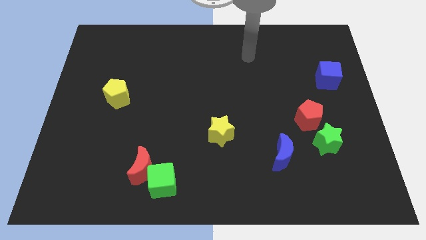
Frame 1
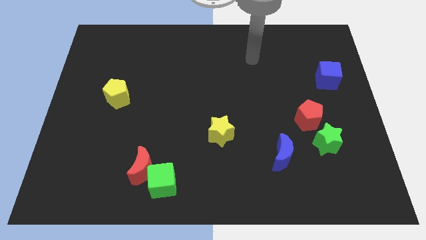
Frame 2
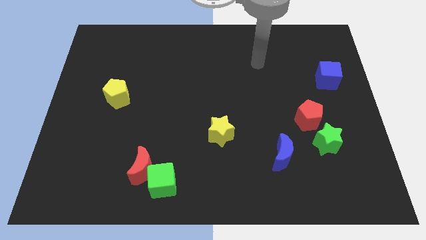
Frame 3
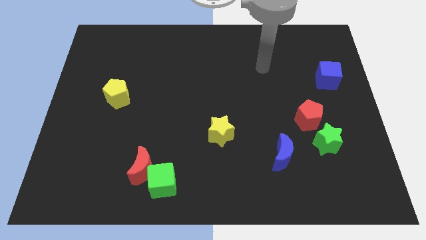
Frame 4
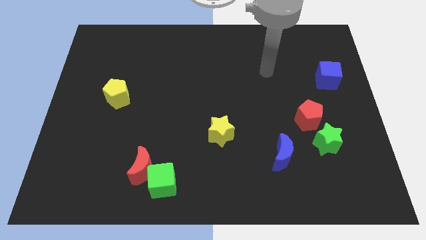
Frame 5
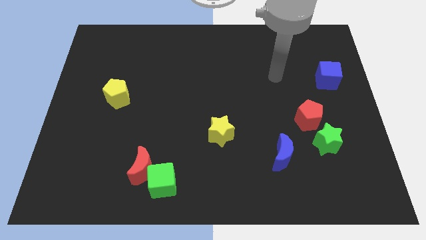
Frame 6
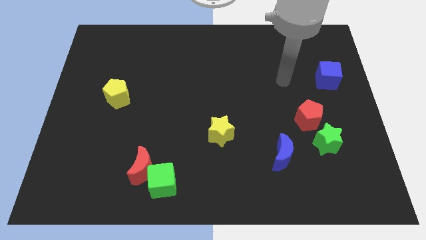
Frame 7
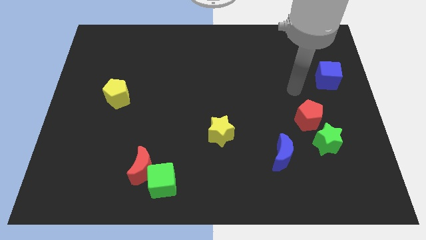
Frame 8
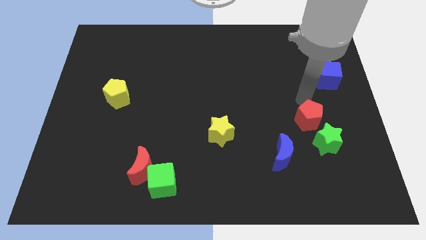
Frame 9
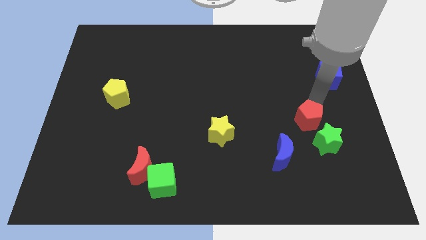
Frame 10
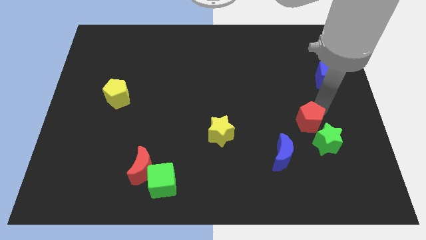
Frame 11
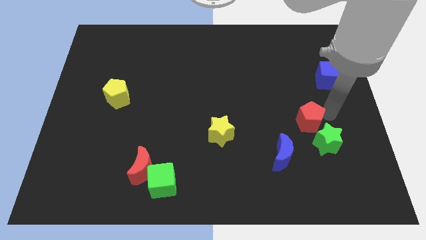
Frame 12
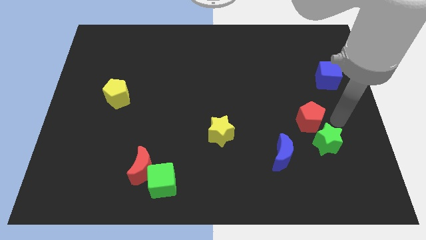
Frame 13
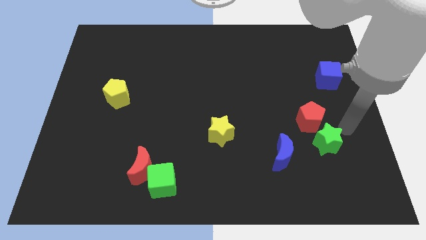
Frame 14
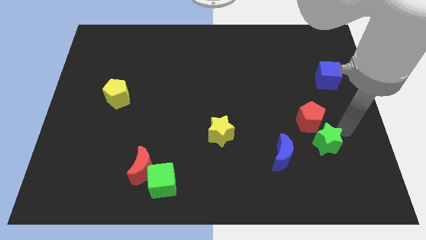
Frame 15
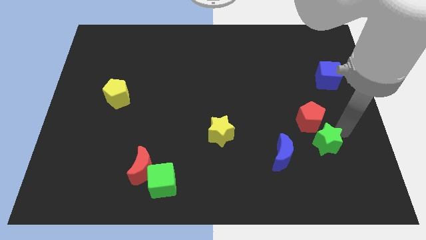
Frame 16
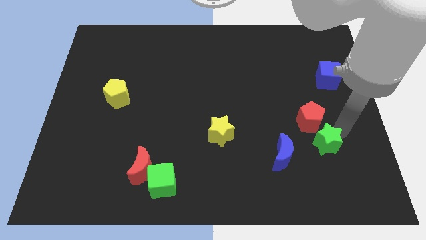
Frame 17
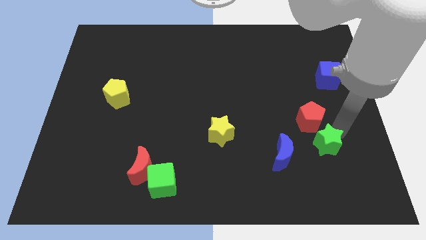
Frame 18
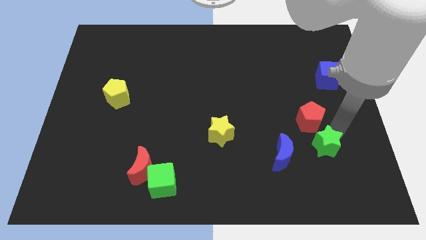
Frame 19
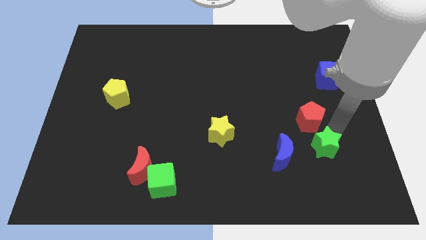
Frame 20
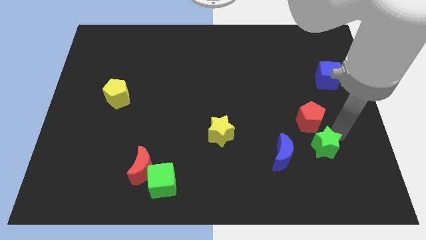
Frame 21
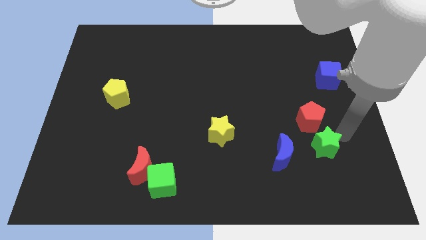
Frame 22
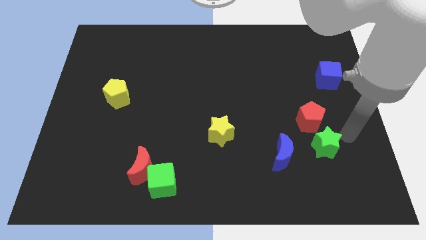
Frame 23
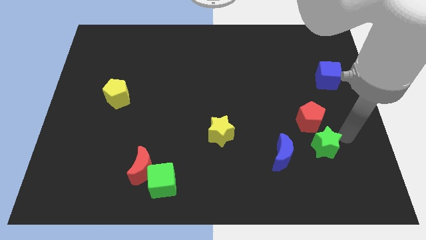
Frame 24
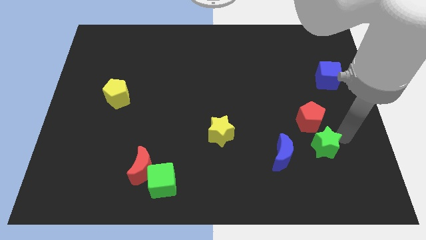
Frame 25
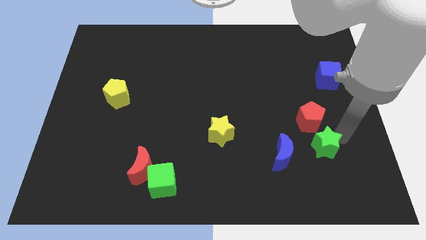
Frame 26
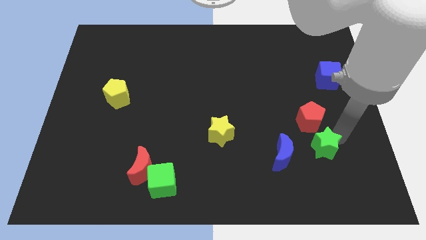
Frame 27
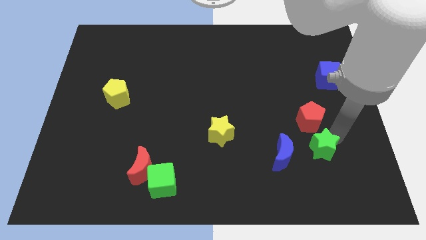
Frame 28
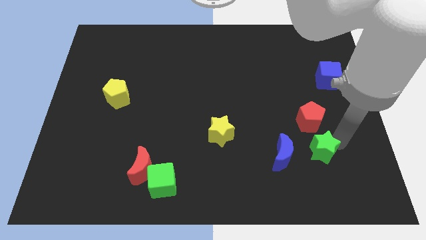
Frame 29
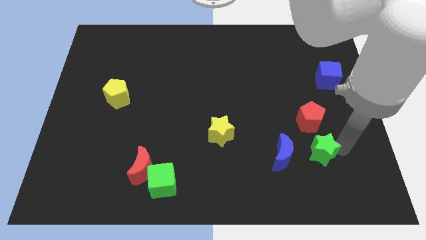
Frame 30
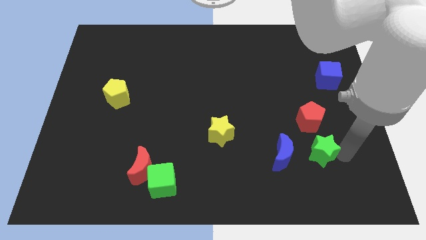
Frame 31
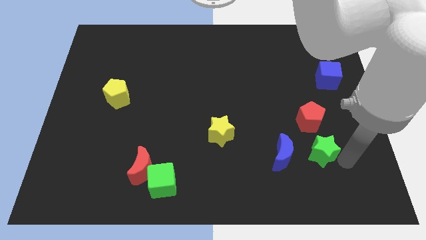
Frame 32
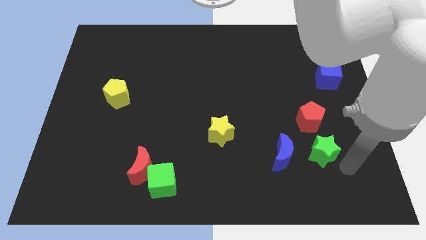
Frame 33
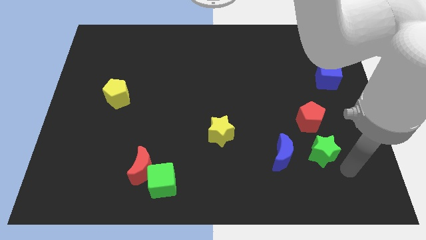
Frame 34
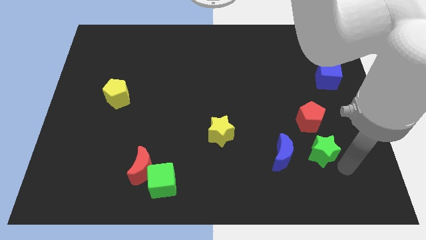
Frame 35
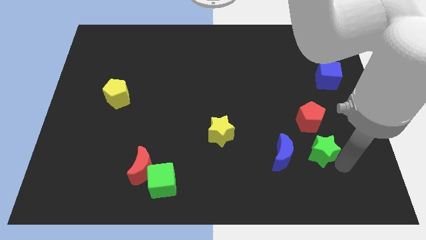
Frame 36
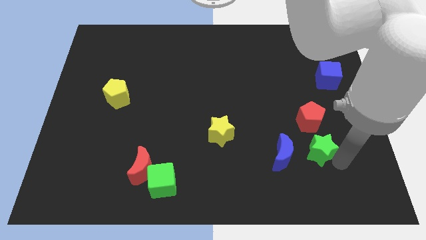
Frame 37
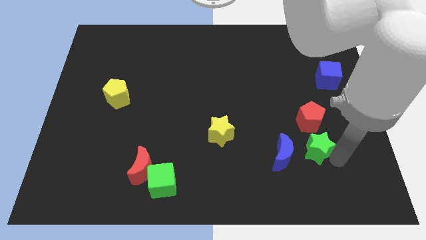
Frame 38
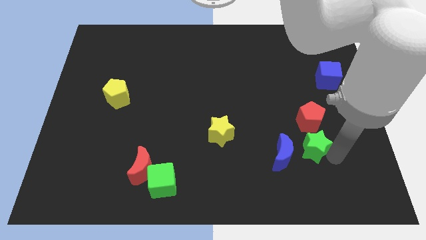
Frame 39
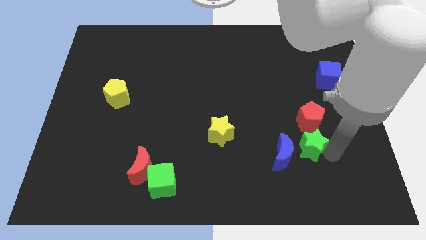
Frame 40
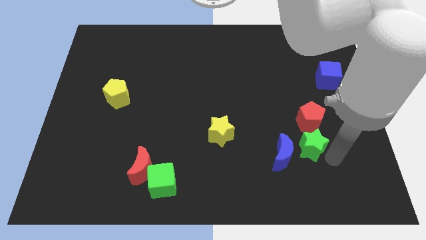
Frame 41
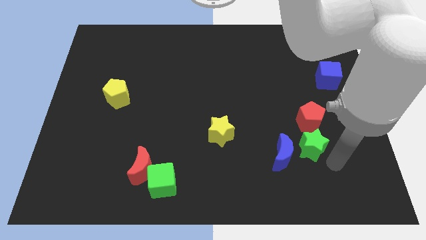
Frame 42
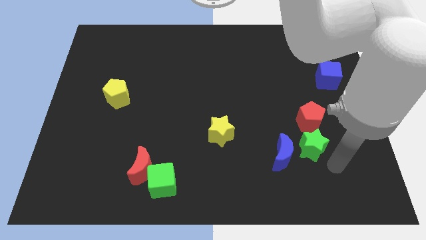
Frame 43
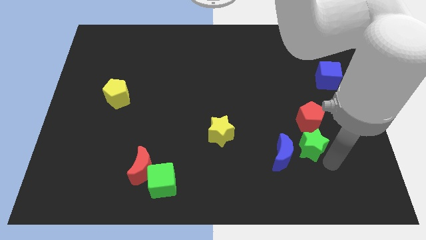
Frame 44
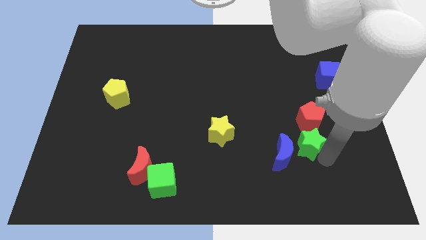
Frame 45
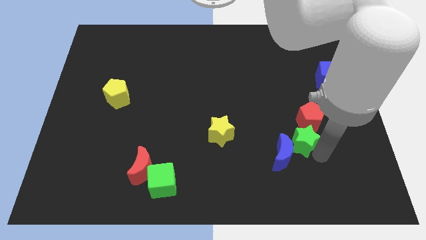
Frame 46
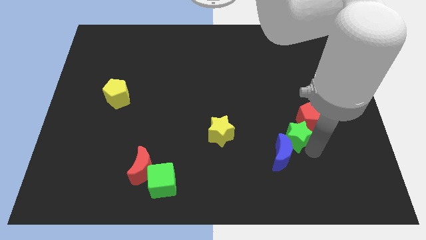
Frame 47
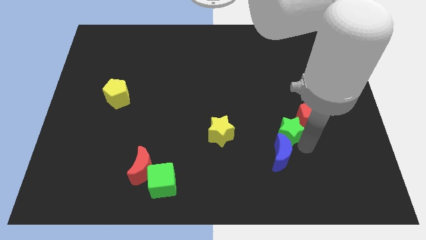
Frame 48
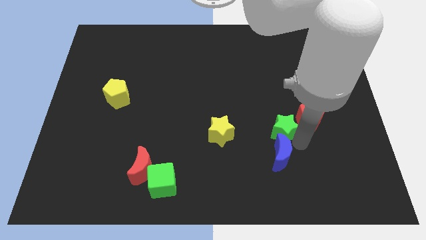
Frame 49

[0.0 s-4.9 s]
slide the green star somewhat up and then left

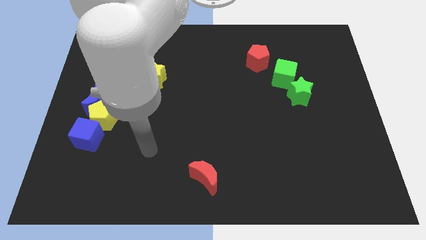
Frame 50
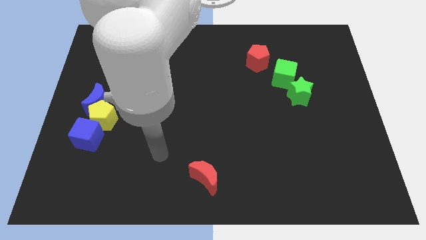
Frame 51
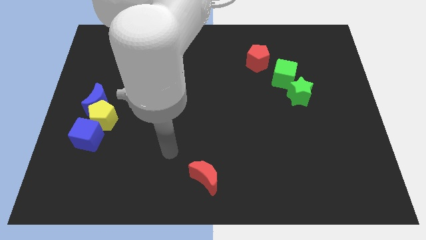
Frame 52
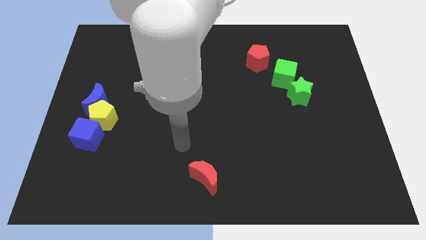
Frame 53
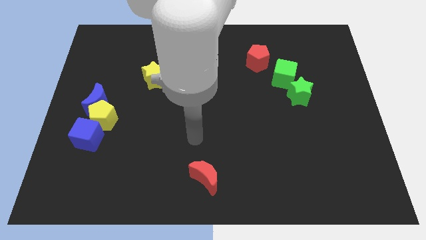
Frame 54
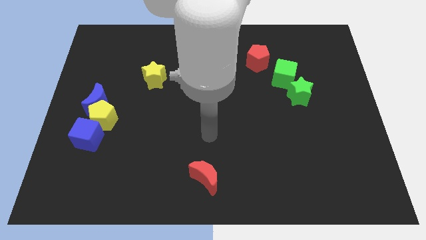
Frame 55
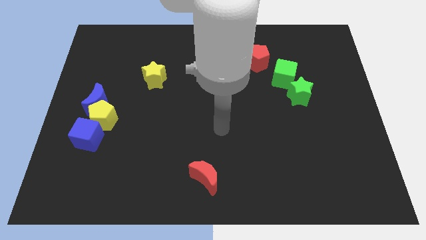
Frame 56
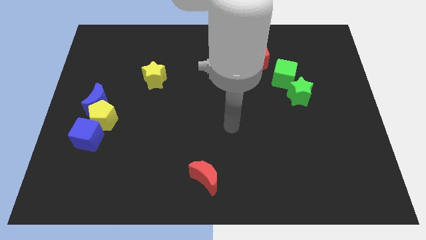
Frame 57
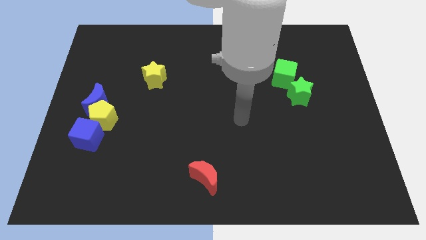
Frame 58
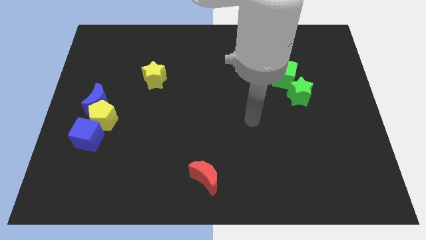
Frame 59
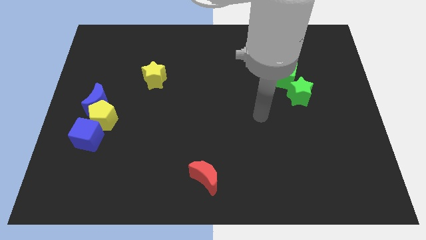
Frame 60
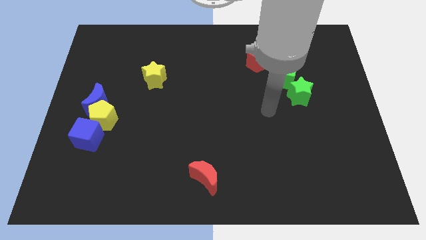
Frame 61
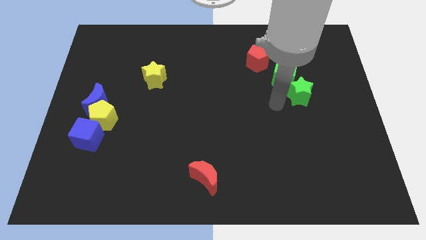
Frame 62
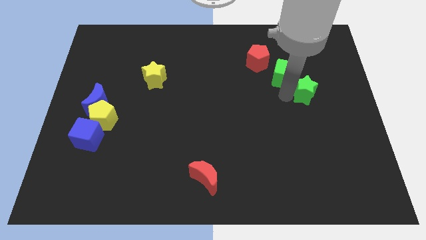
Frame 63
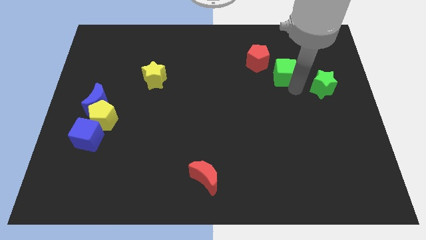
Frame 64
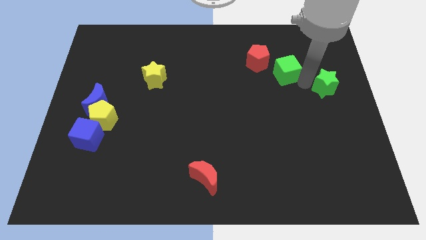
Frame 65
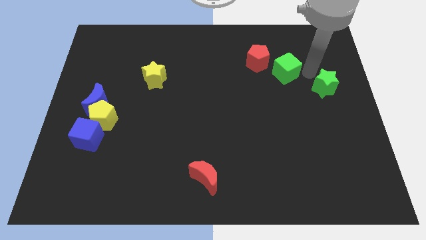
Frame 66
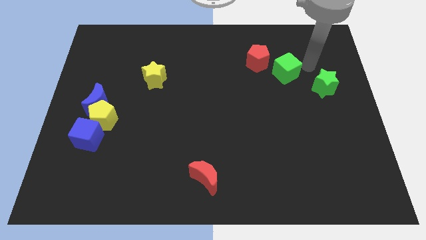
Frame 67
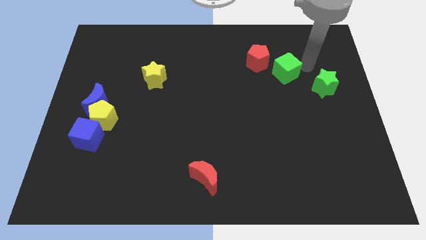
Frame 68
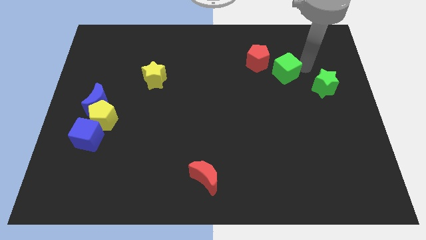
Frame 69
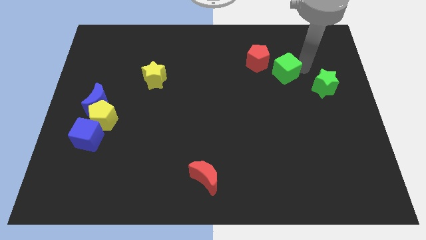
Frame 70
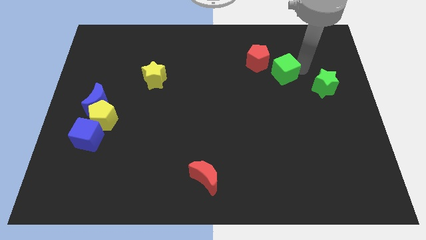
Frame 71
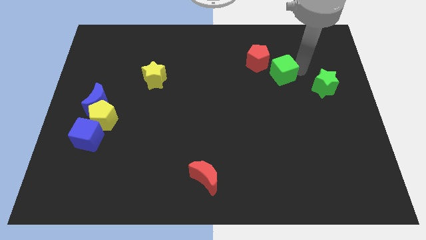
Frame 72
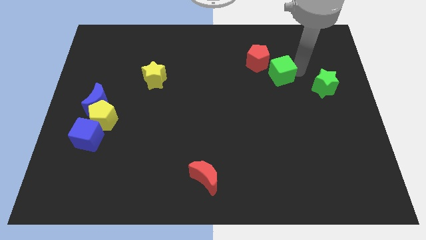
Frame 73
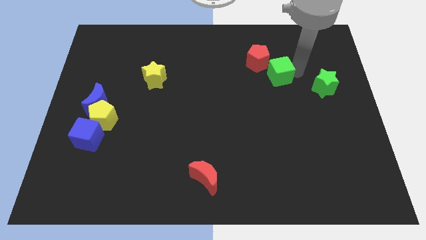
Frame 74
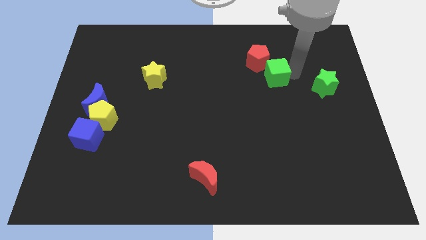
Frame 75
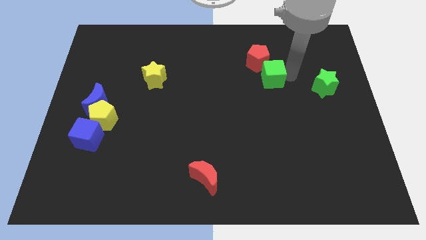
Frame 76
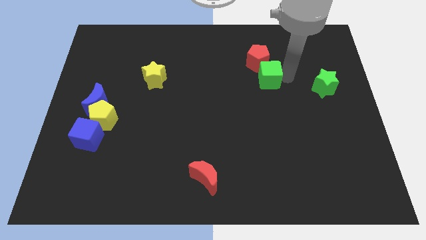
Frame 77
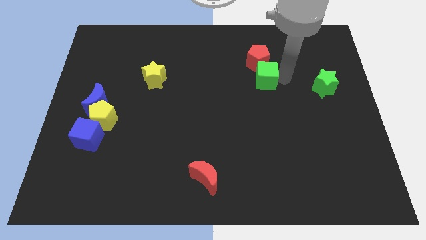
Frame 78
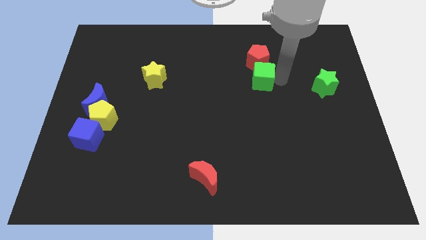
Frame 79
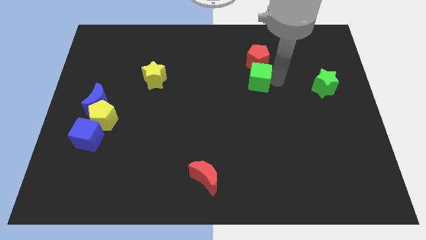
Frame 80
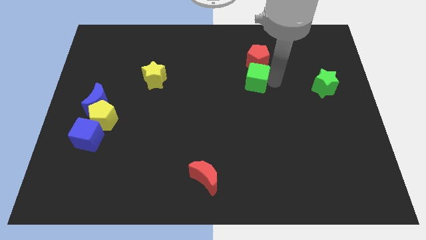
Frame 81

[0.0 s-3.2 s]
slightly push the green cube to the left

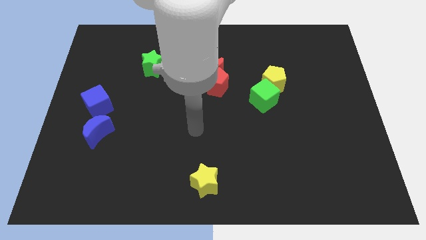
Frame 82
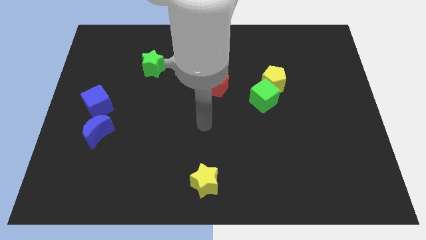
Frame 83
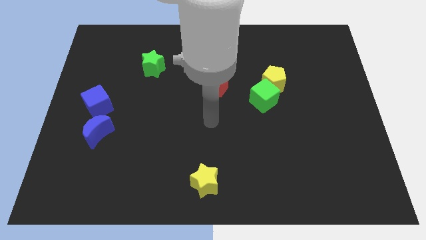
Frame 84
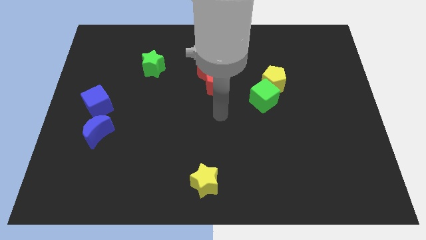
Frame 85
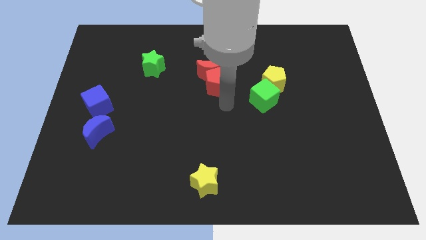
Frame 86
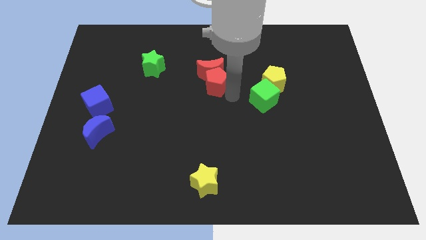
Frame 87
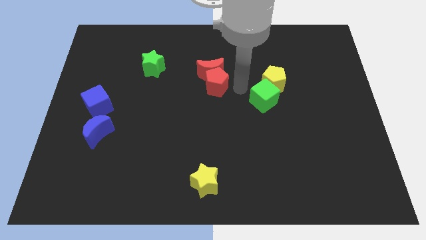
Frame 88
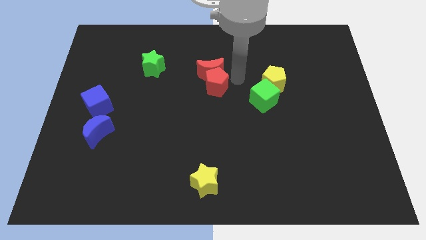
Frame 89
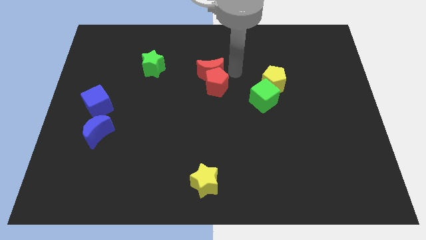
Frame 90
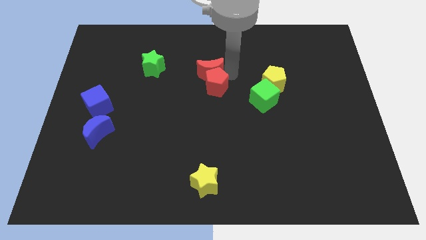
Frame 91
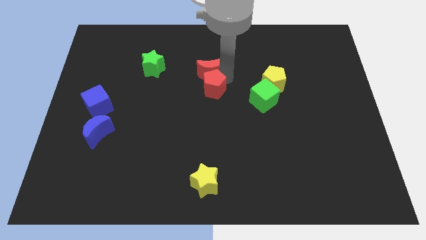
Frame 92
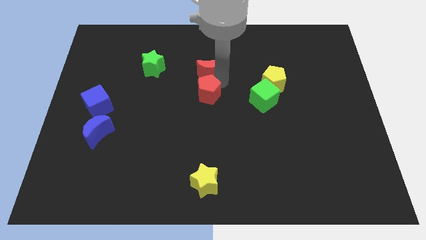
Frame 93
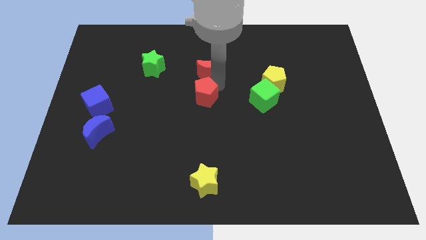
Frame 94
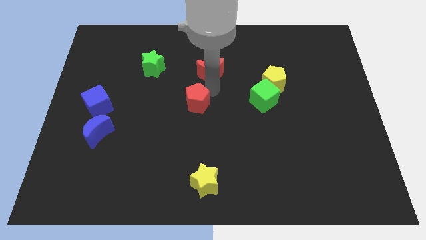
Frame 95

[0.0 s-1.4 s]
slide the red pentagon diagonally downwards and left a bit
